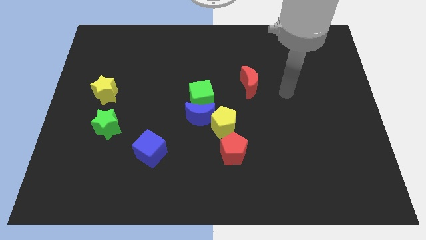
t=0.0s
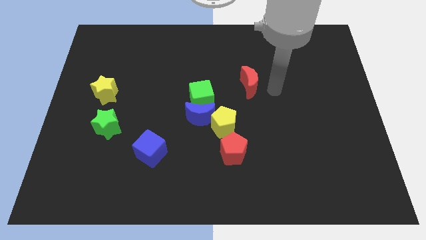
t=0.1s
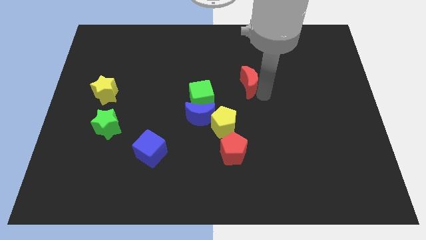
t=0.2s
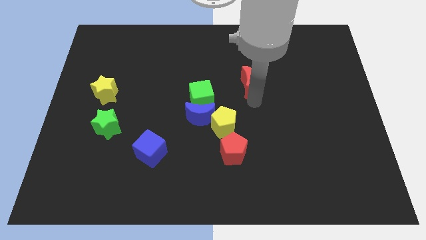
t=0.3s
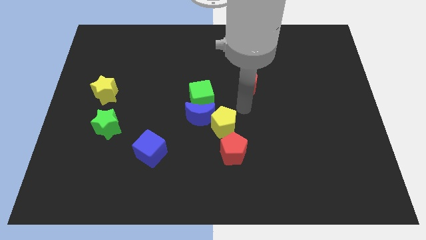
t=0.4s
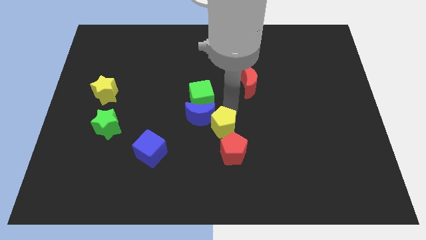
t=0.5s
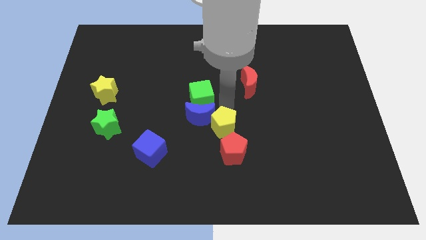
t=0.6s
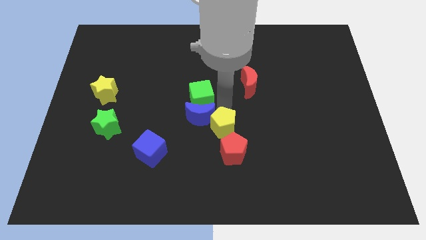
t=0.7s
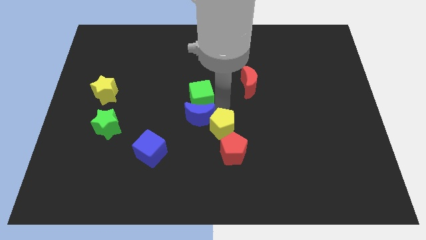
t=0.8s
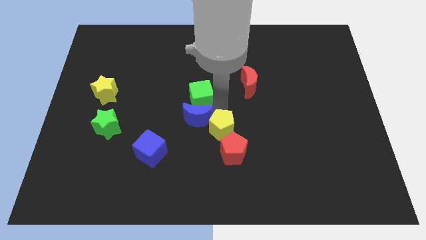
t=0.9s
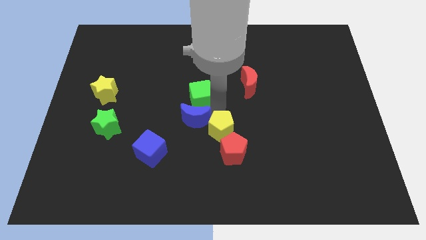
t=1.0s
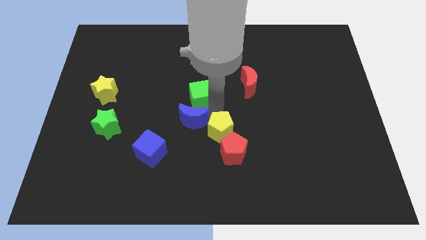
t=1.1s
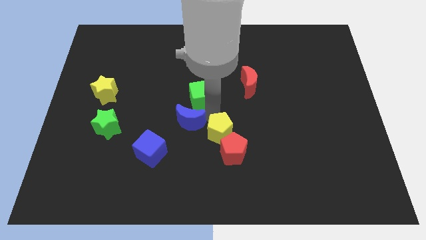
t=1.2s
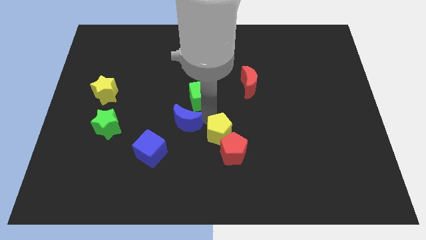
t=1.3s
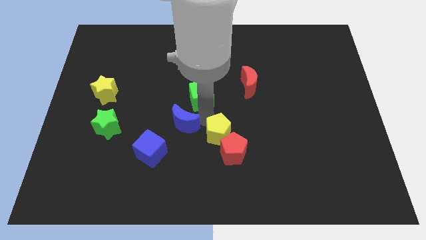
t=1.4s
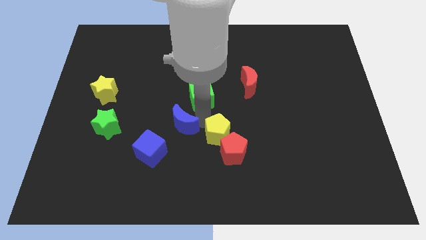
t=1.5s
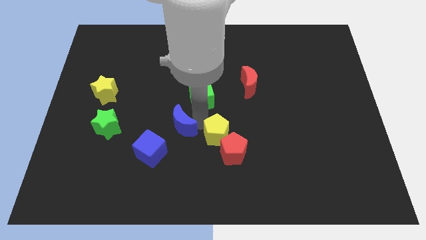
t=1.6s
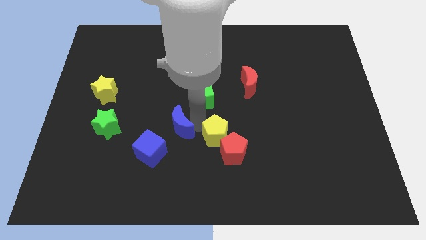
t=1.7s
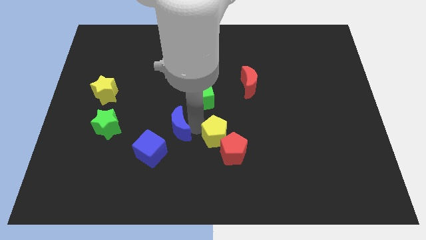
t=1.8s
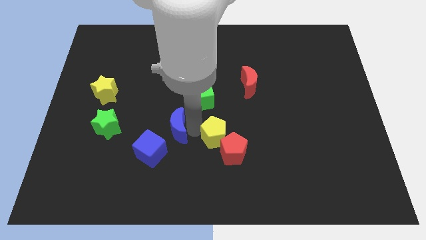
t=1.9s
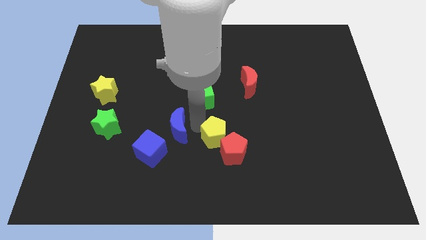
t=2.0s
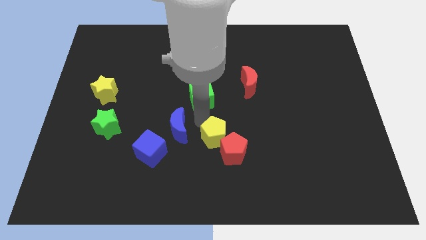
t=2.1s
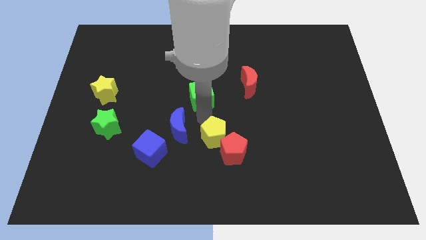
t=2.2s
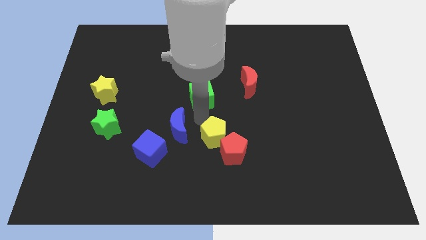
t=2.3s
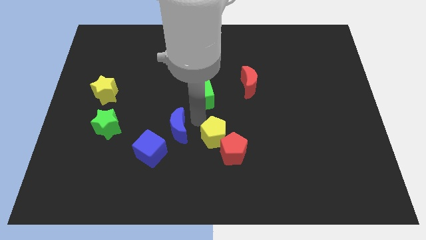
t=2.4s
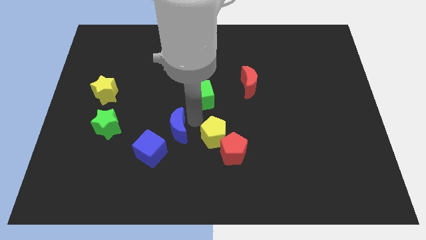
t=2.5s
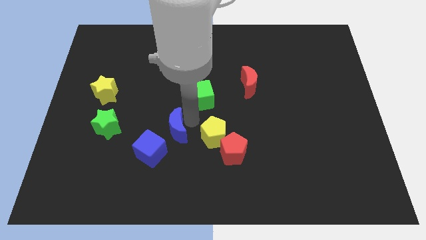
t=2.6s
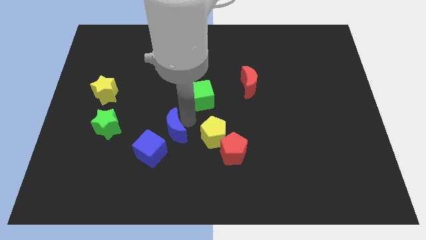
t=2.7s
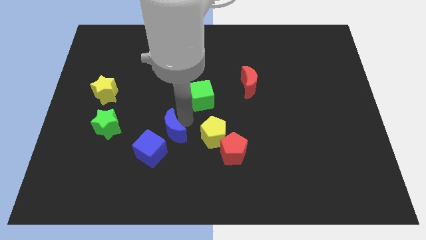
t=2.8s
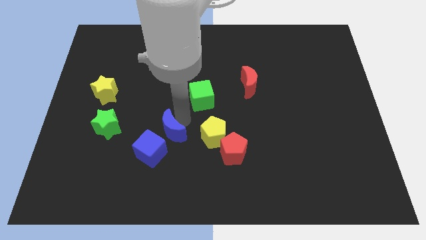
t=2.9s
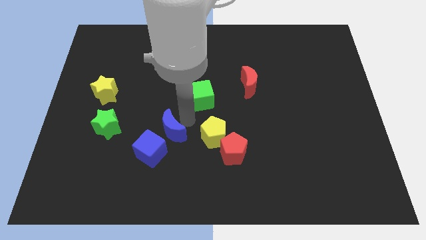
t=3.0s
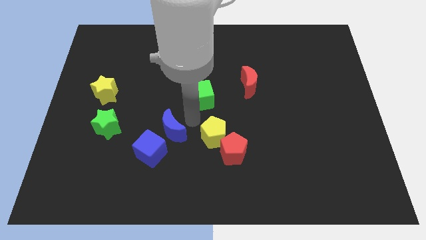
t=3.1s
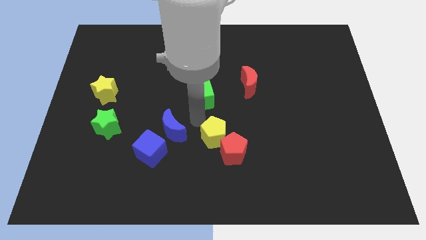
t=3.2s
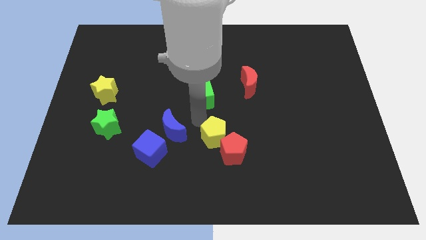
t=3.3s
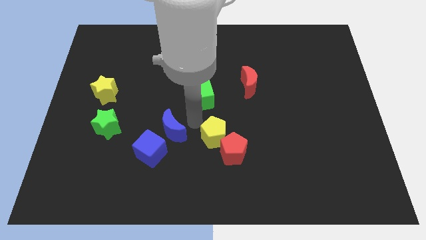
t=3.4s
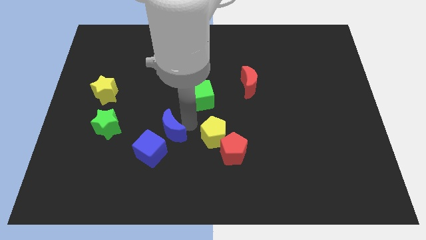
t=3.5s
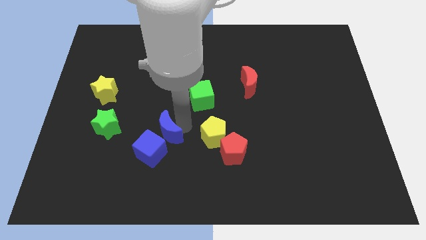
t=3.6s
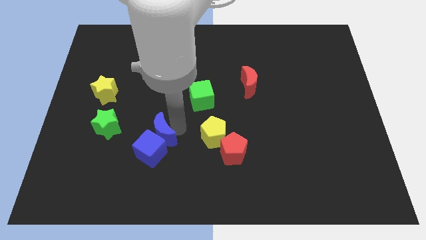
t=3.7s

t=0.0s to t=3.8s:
separate the blue moon from the green cube and yellow pentagon

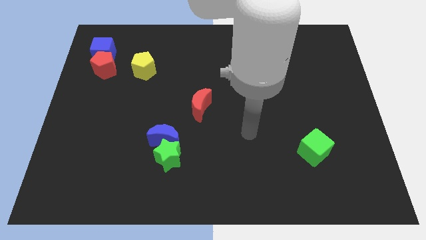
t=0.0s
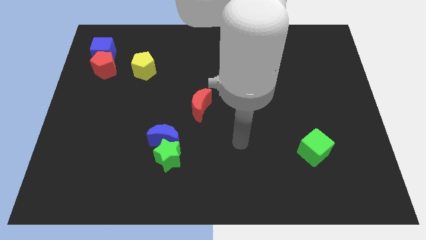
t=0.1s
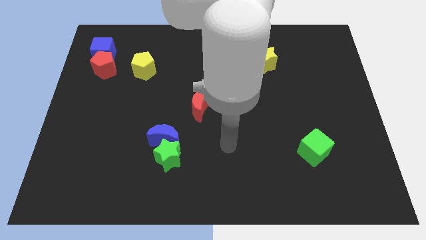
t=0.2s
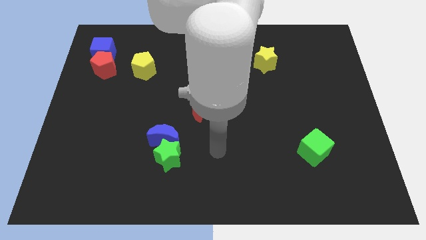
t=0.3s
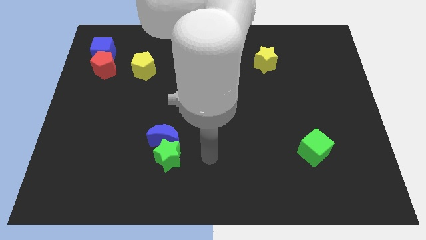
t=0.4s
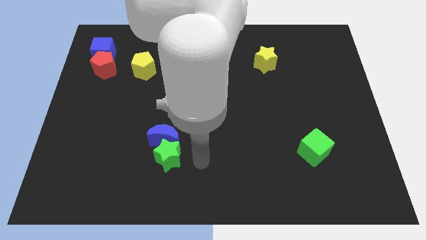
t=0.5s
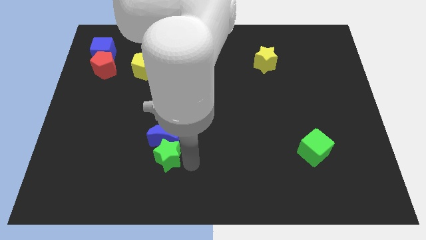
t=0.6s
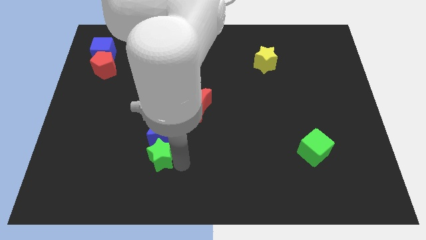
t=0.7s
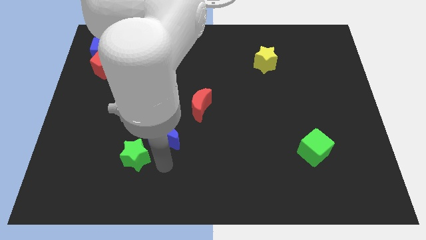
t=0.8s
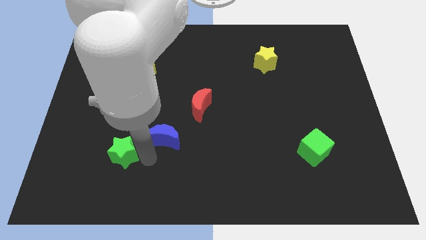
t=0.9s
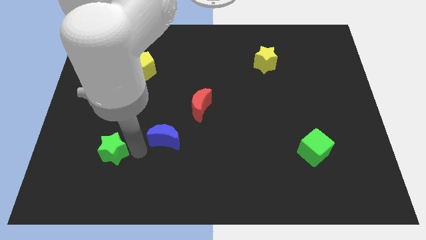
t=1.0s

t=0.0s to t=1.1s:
separate the blue moon from the green star
